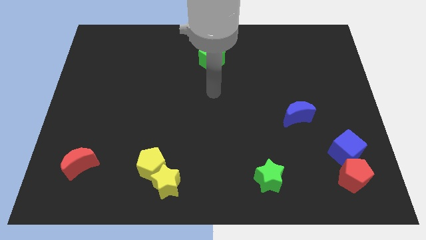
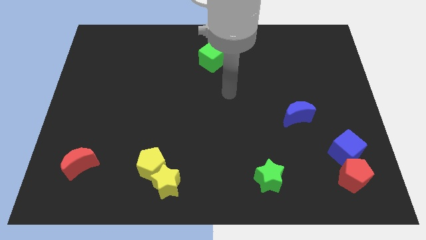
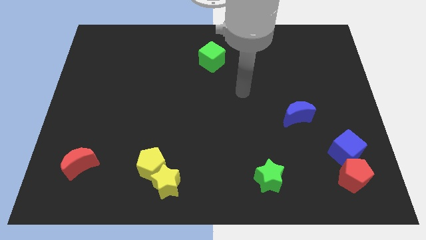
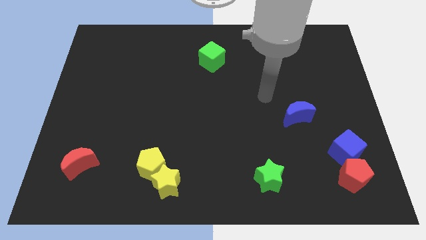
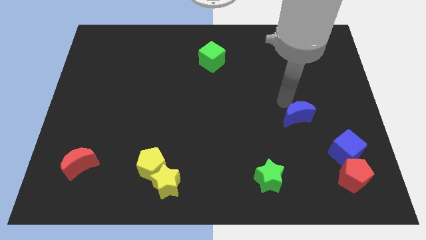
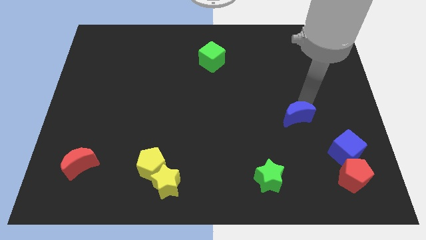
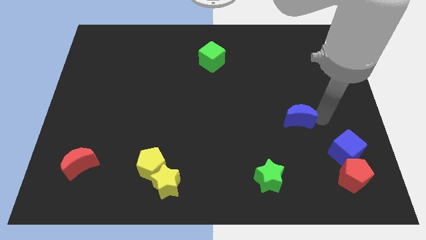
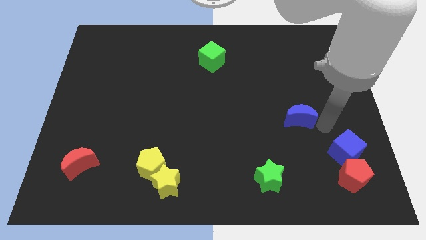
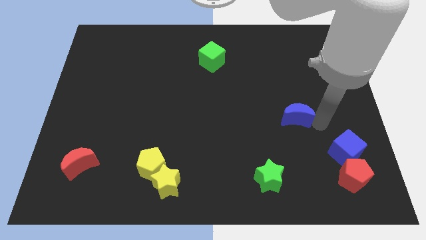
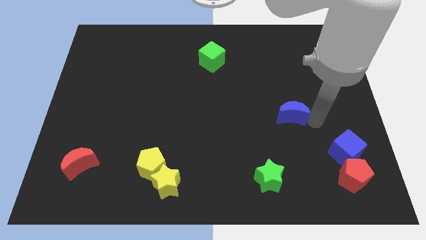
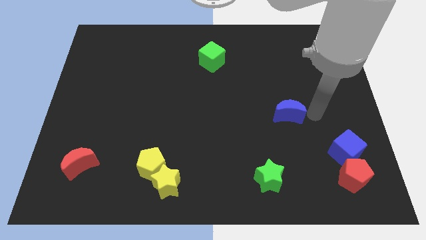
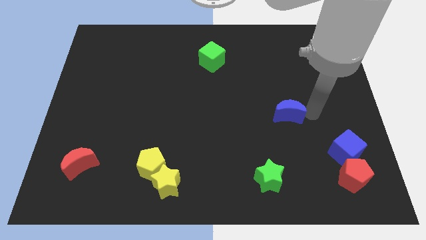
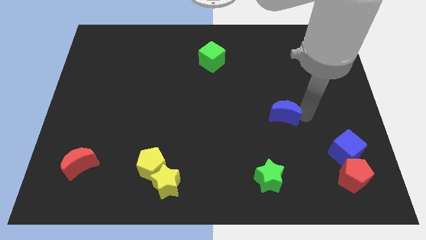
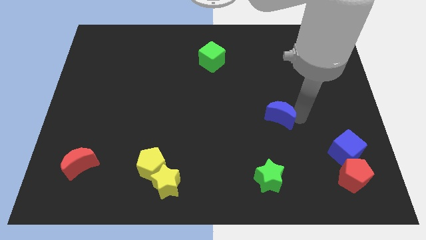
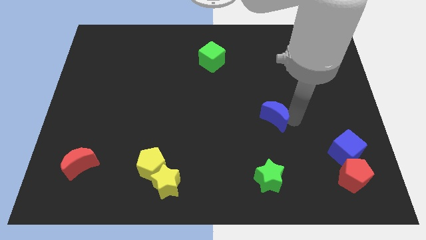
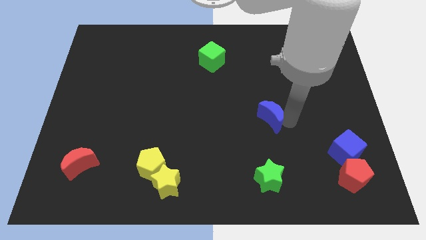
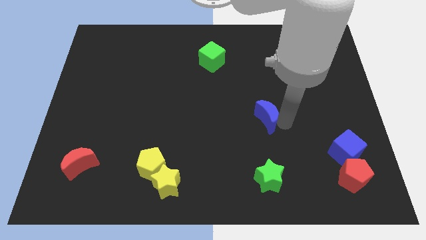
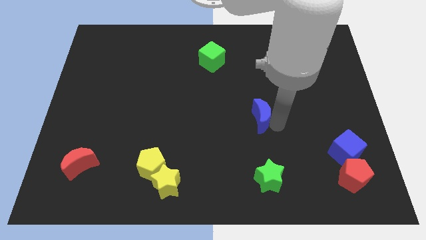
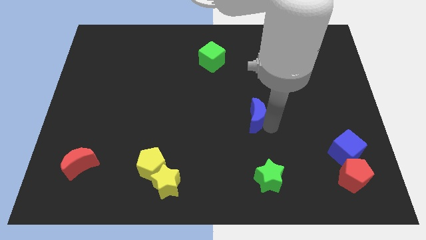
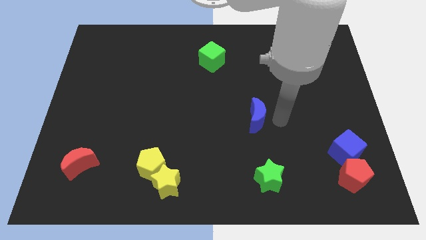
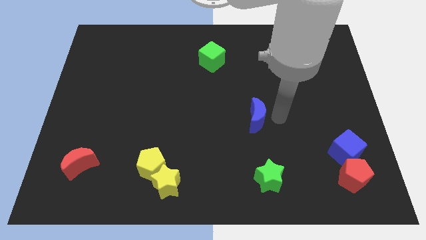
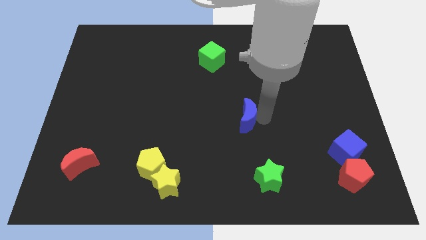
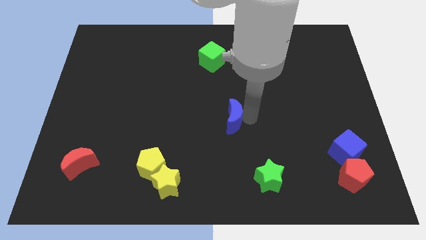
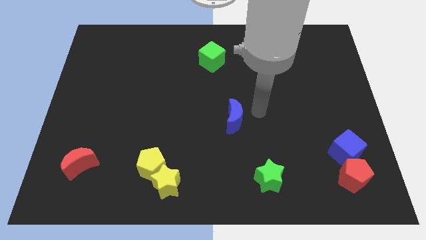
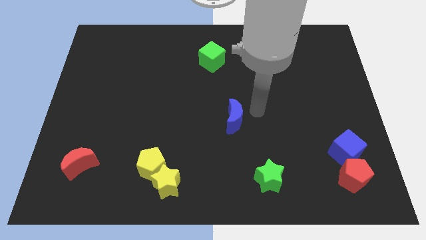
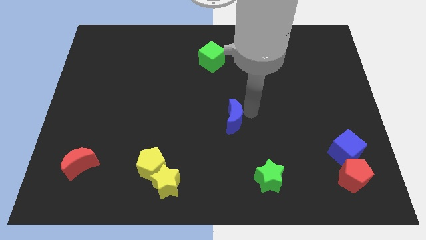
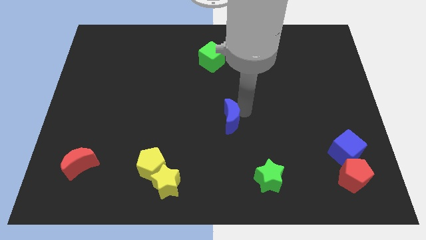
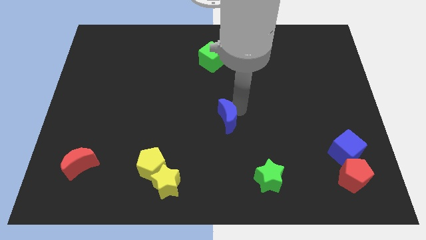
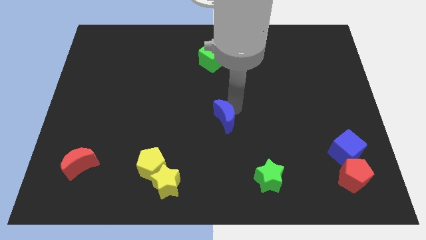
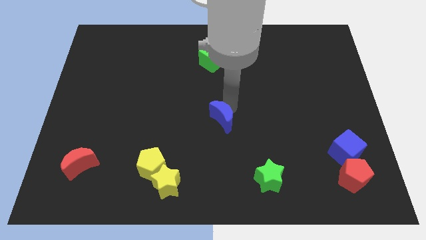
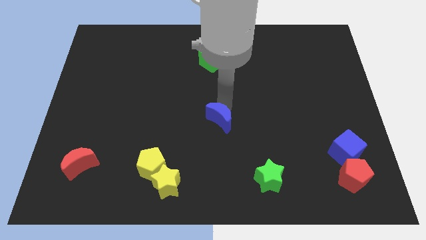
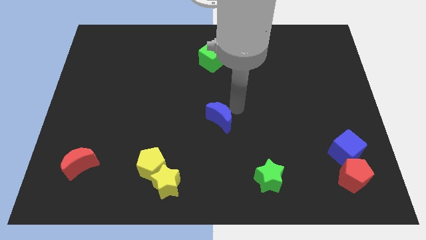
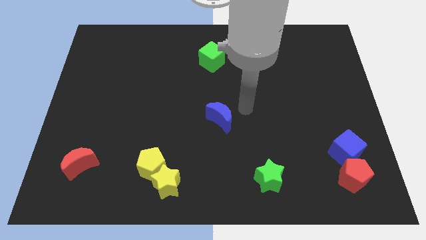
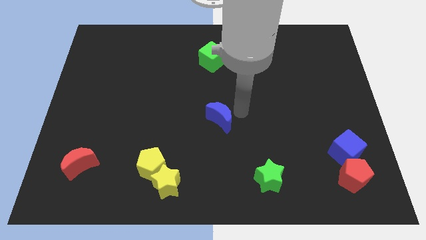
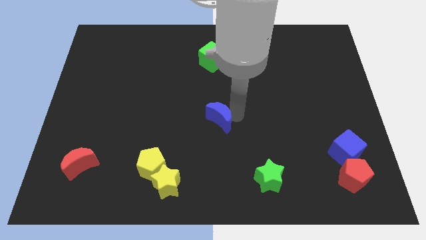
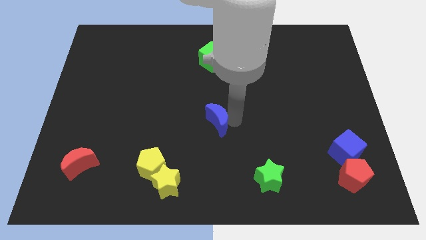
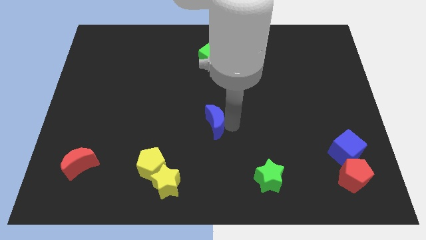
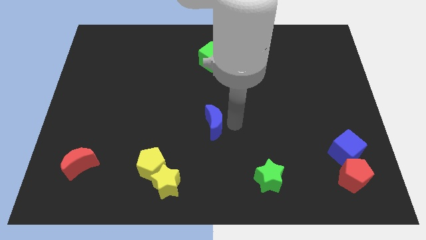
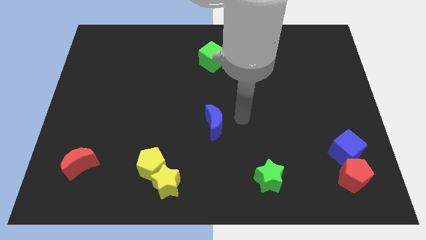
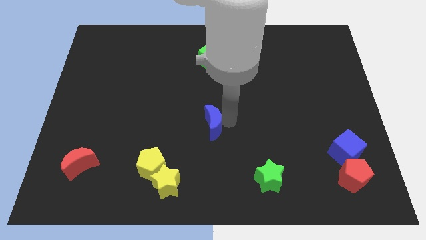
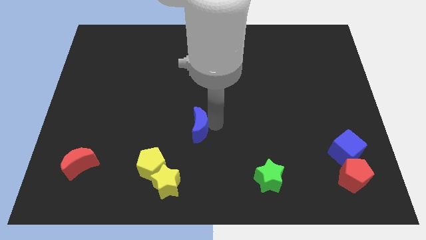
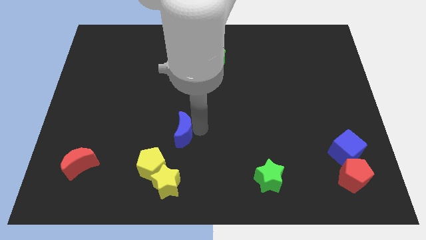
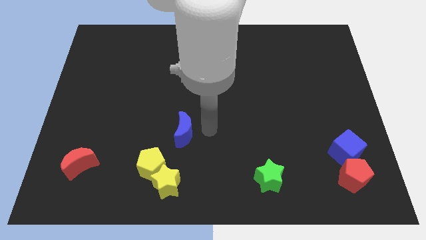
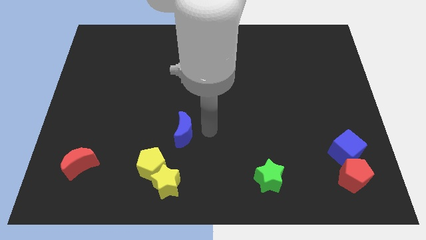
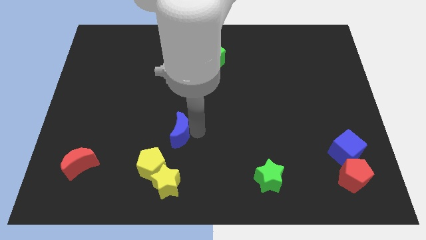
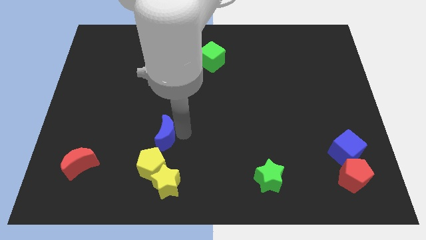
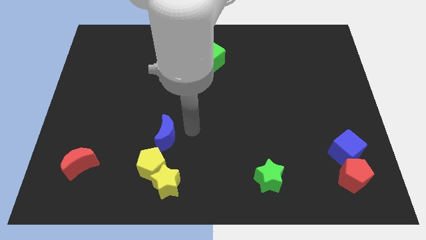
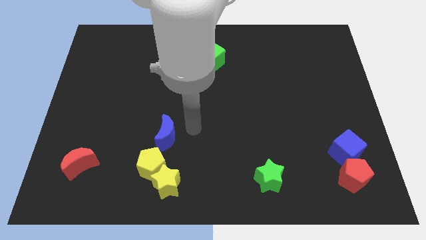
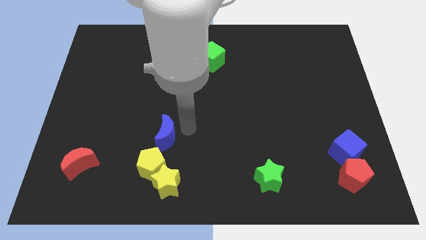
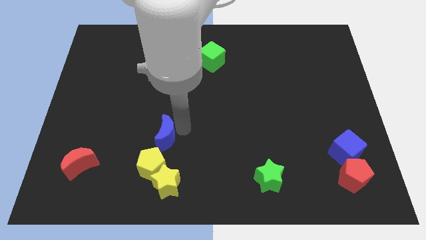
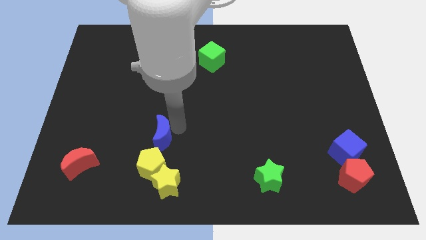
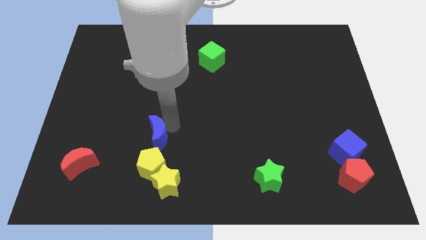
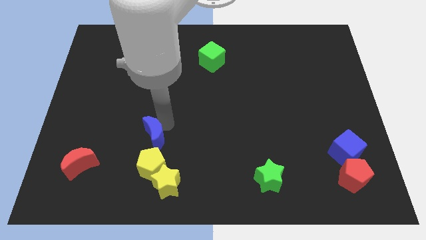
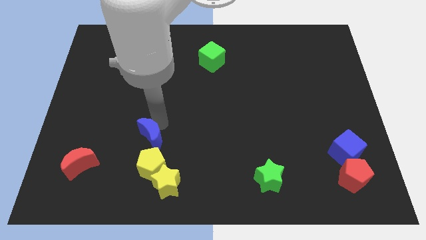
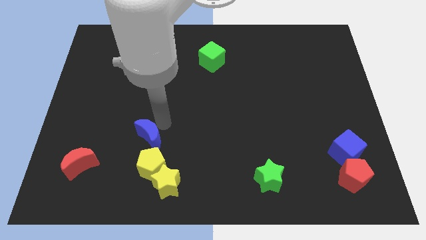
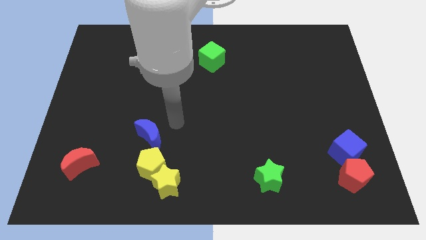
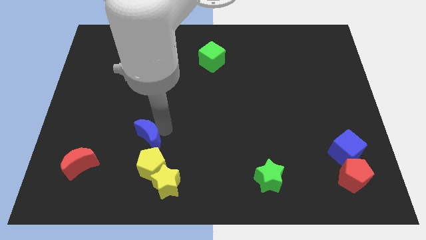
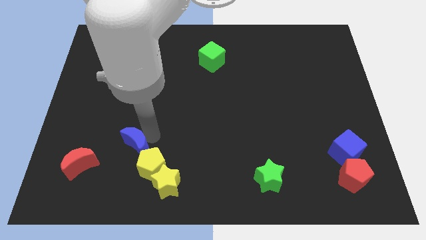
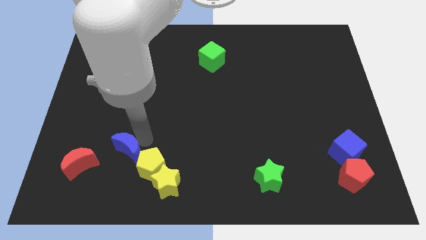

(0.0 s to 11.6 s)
push the blue moon just left of the yellow pentagon

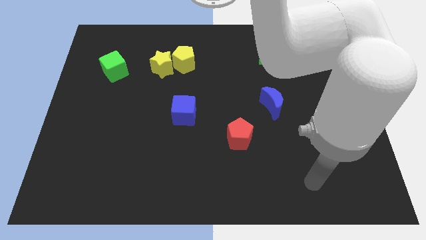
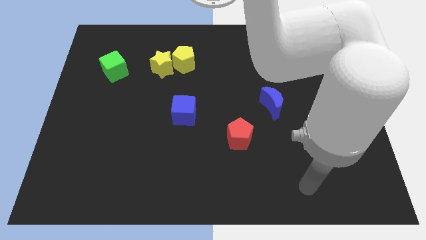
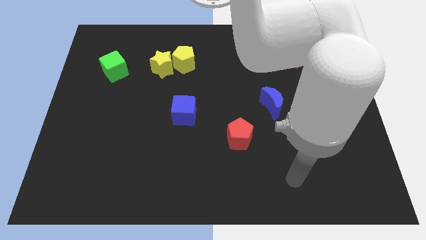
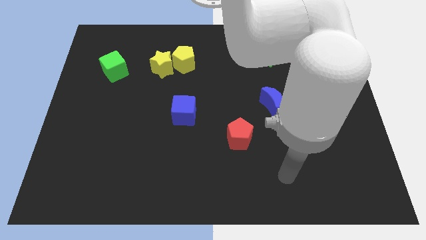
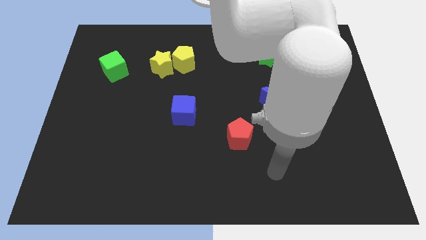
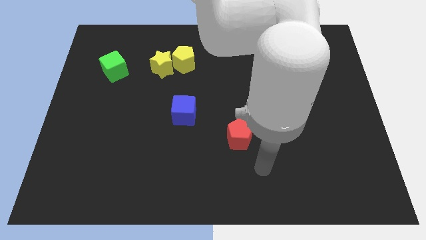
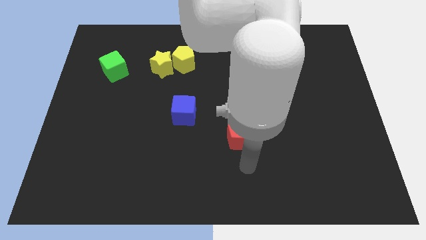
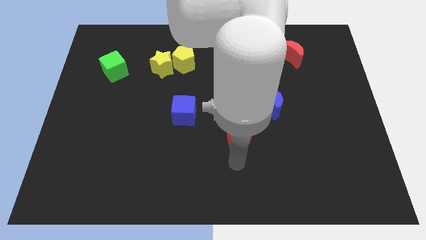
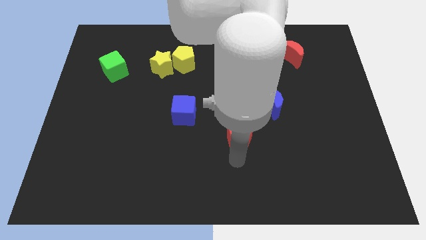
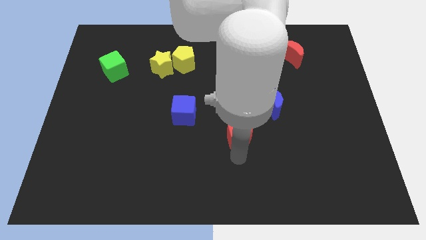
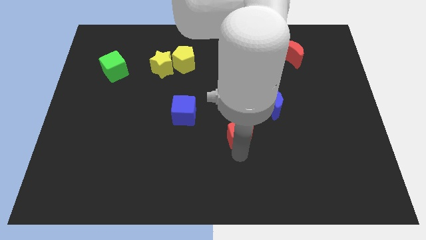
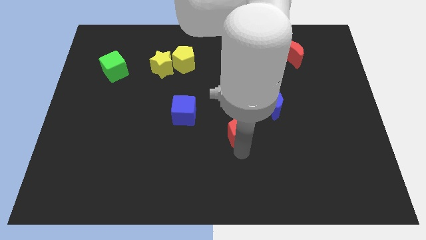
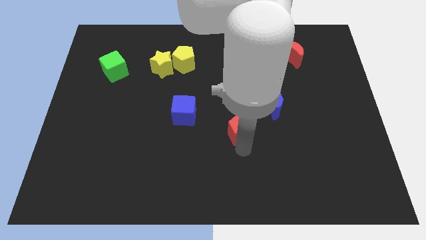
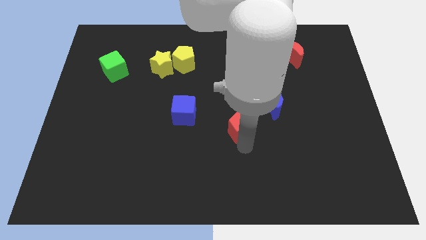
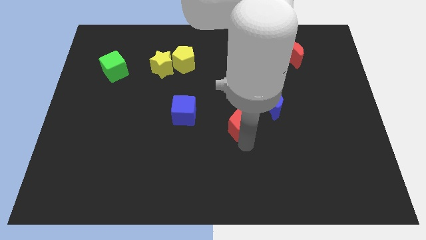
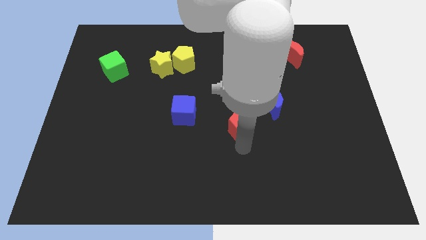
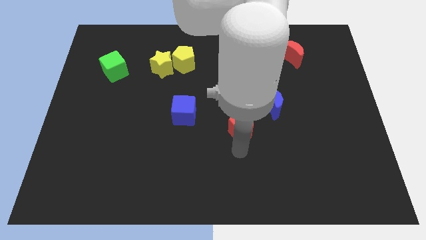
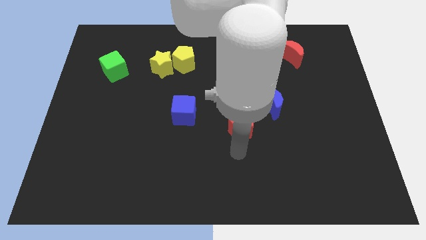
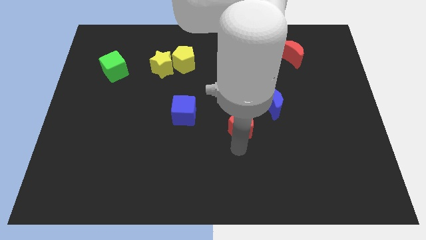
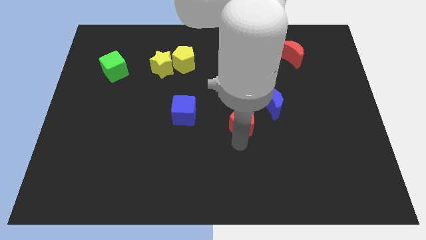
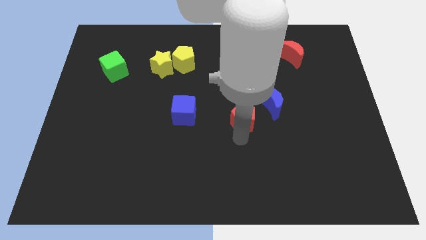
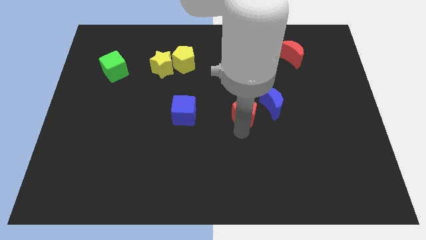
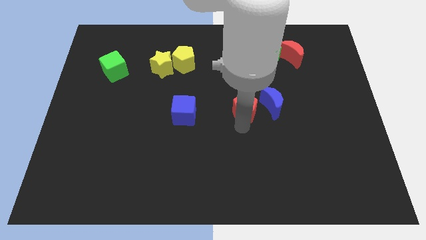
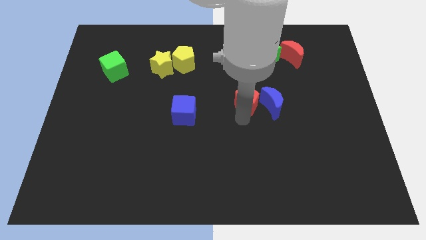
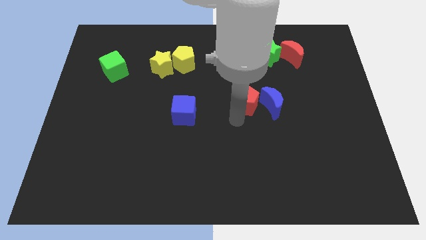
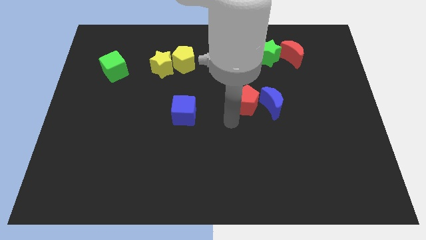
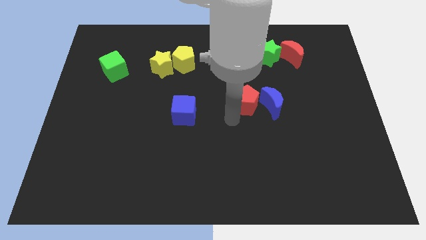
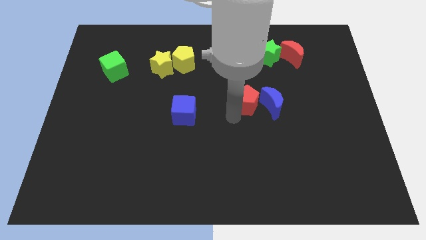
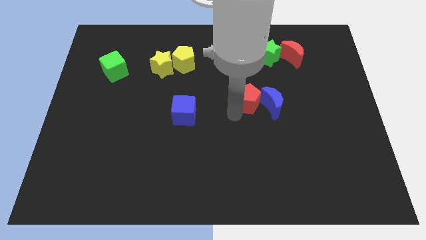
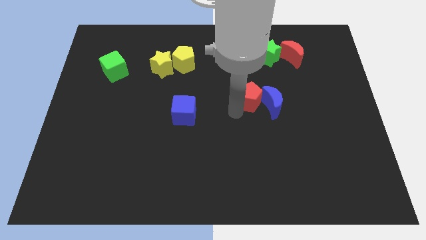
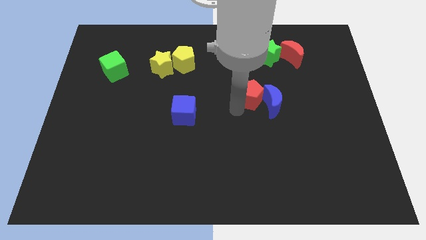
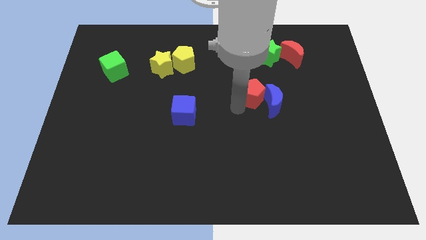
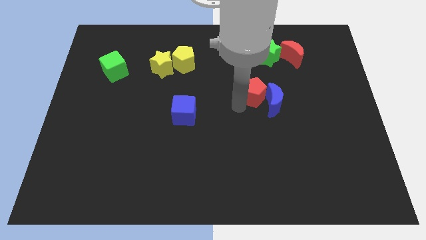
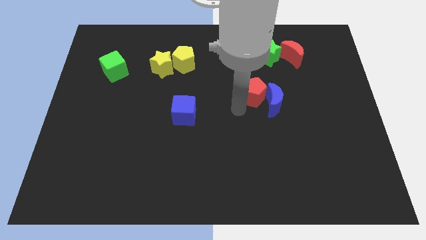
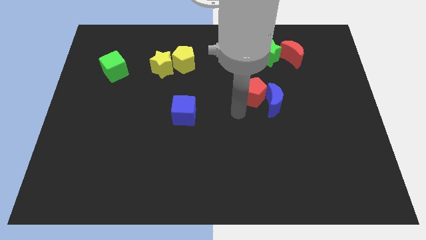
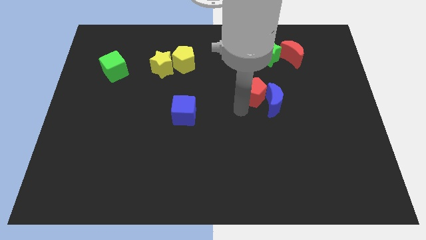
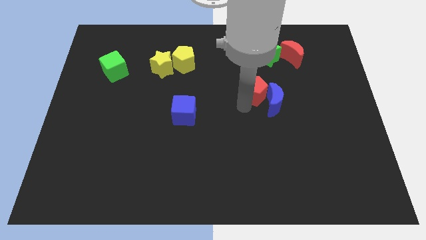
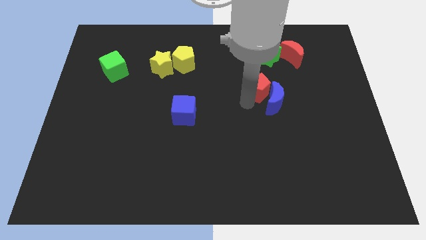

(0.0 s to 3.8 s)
put the red pentagon to the top of the blue moon
